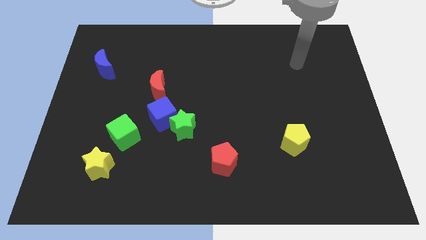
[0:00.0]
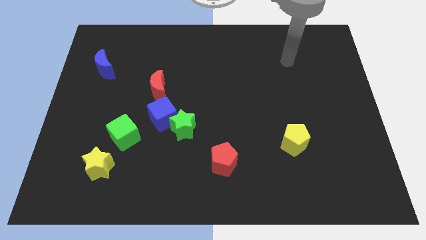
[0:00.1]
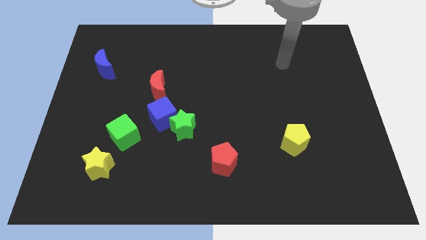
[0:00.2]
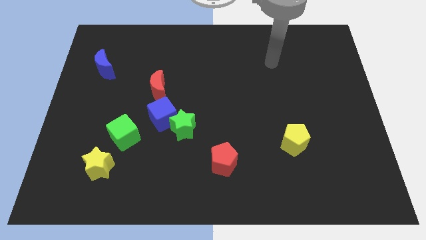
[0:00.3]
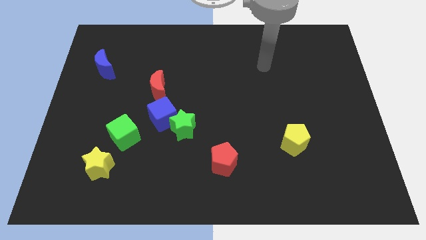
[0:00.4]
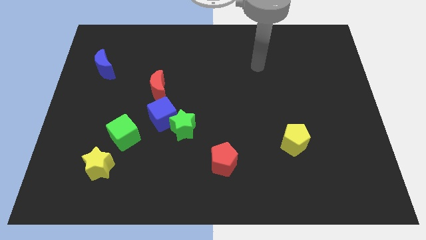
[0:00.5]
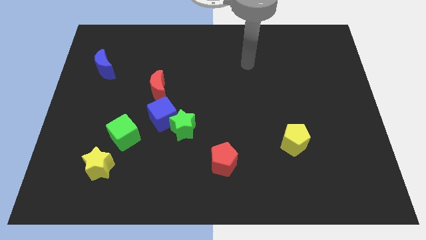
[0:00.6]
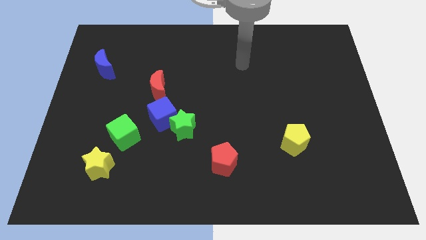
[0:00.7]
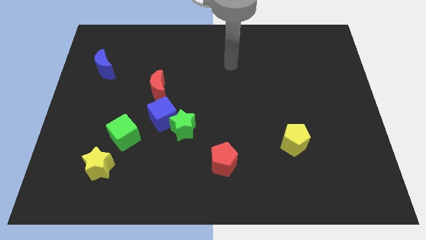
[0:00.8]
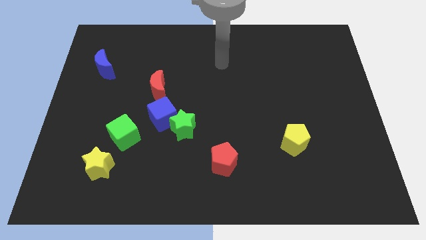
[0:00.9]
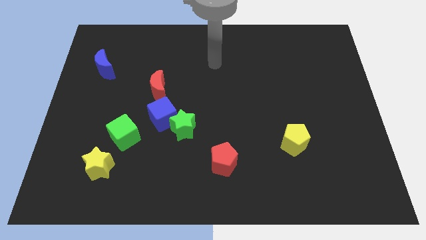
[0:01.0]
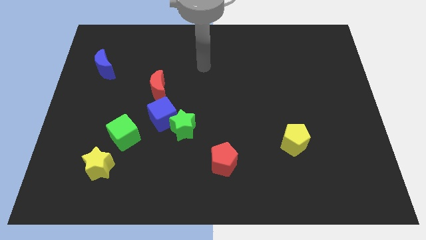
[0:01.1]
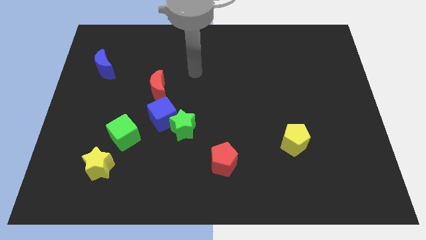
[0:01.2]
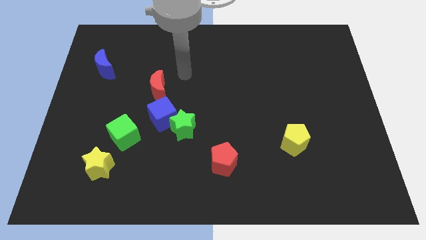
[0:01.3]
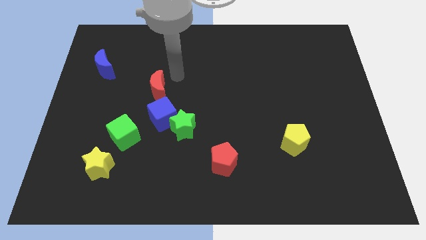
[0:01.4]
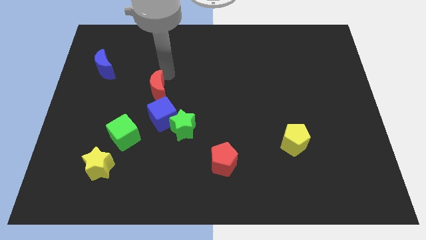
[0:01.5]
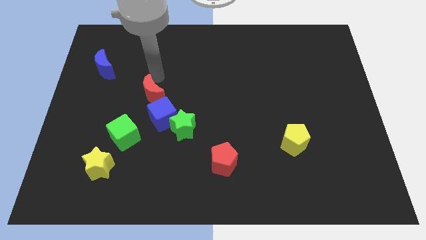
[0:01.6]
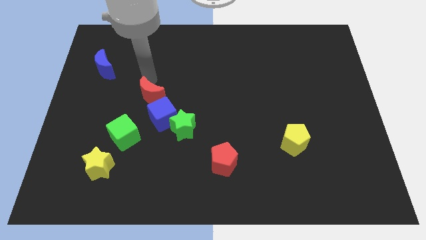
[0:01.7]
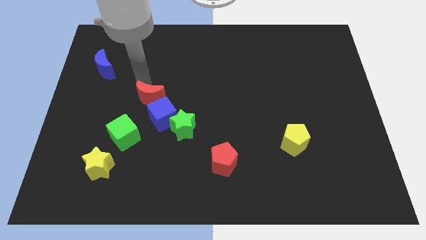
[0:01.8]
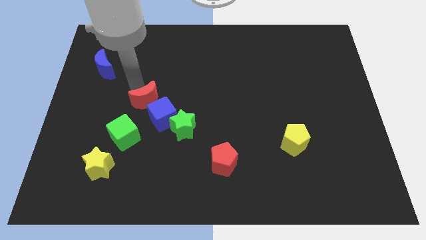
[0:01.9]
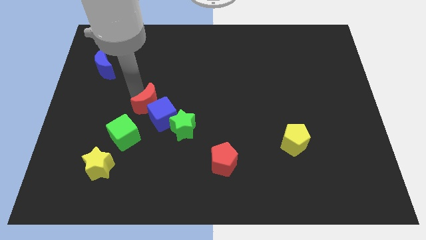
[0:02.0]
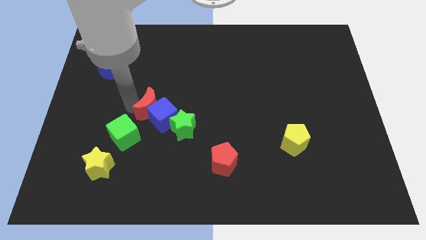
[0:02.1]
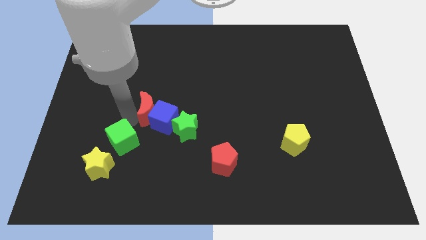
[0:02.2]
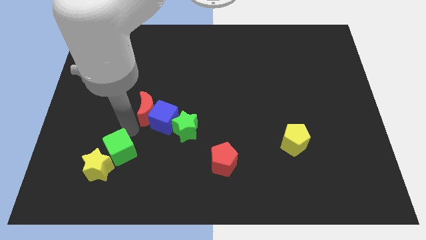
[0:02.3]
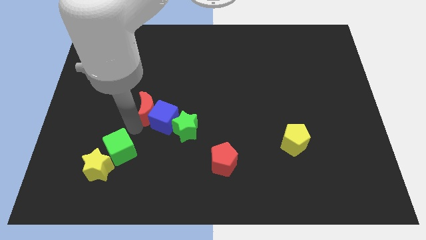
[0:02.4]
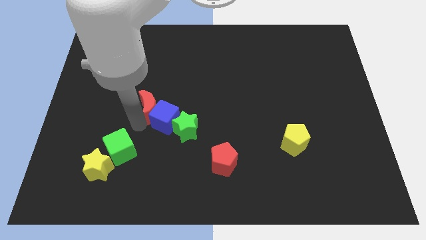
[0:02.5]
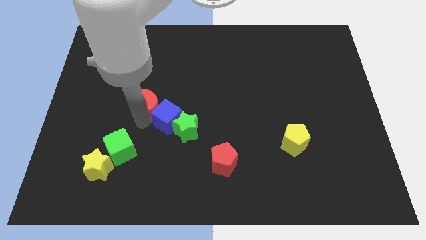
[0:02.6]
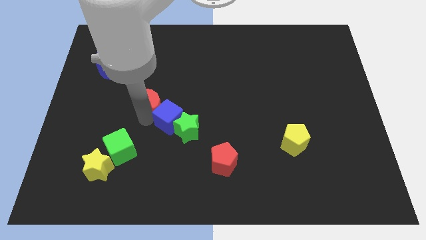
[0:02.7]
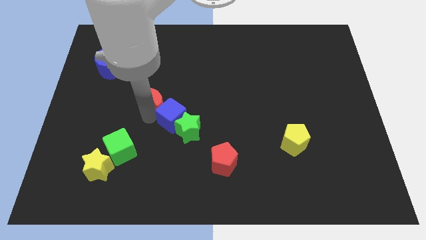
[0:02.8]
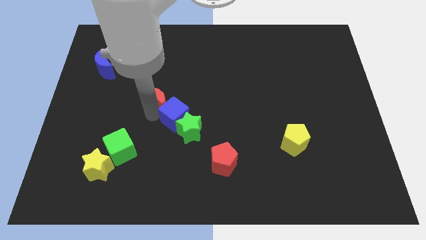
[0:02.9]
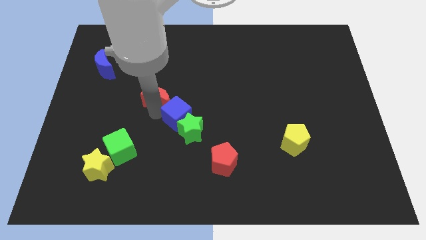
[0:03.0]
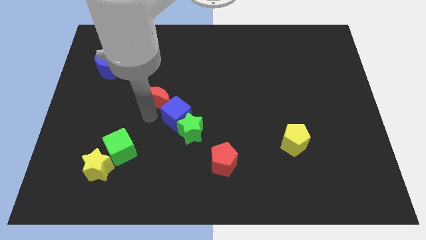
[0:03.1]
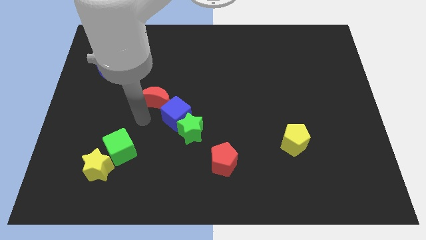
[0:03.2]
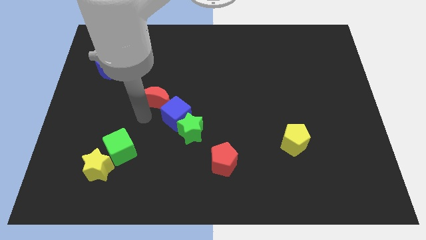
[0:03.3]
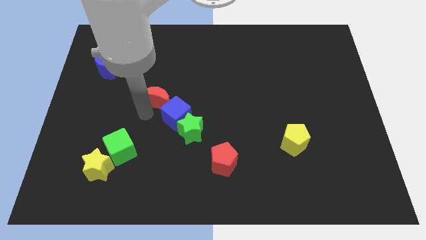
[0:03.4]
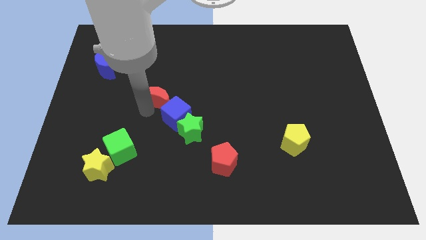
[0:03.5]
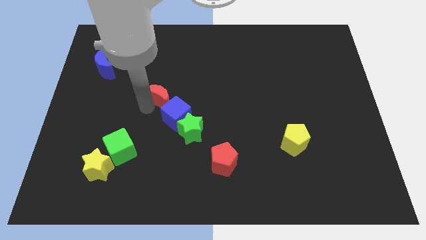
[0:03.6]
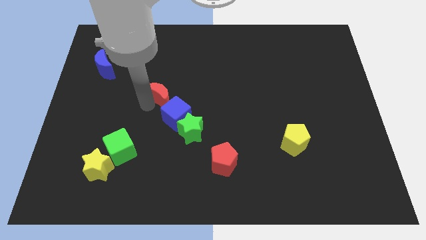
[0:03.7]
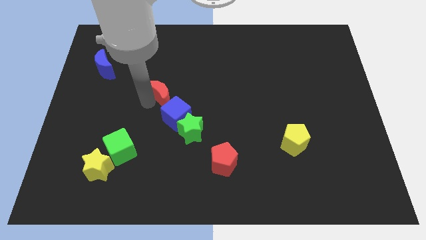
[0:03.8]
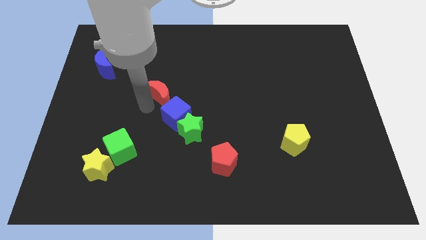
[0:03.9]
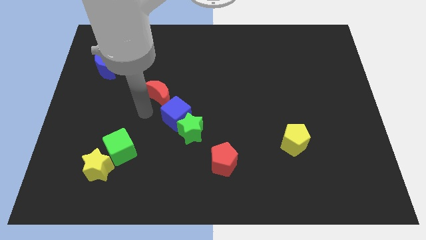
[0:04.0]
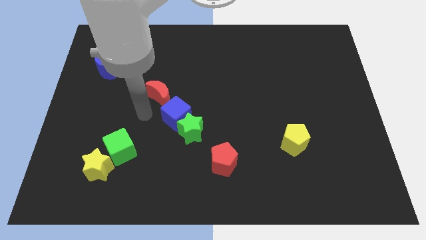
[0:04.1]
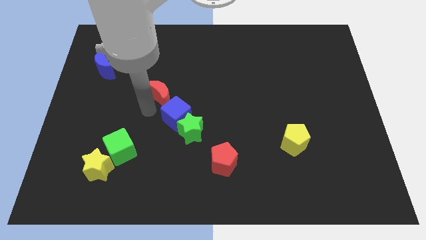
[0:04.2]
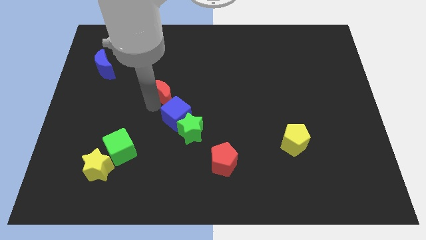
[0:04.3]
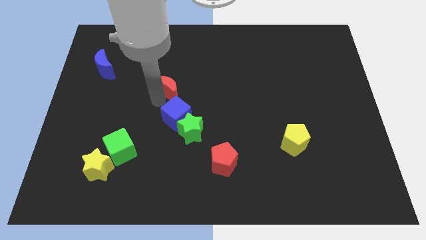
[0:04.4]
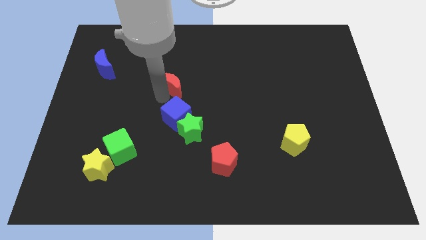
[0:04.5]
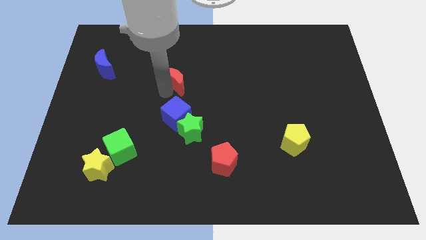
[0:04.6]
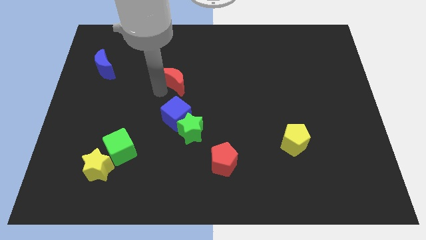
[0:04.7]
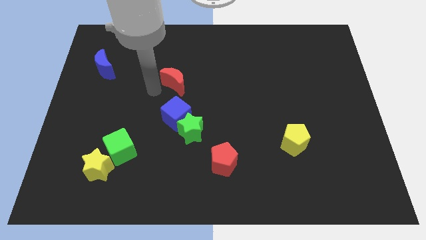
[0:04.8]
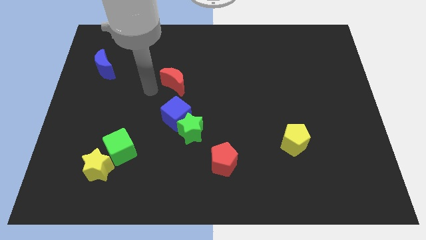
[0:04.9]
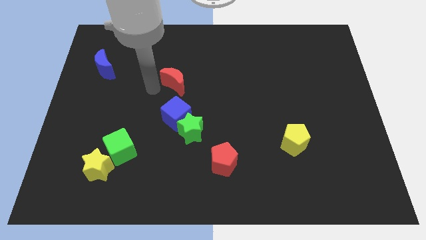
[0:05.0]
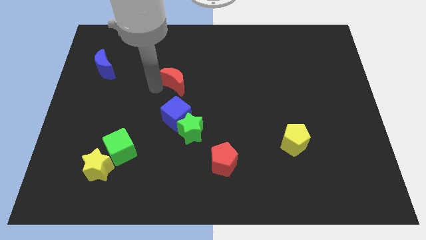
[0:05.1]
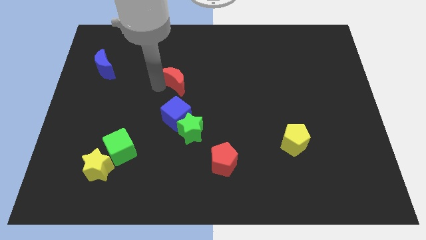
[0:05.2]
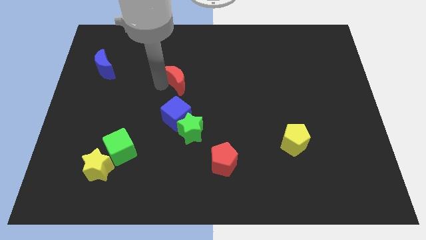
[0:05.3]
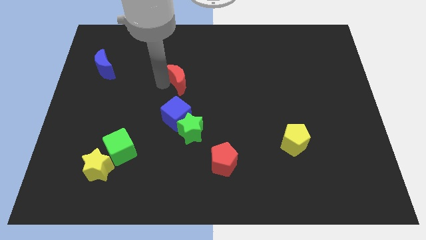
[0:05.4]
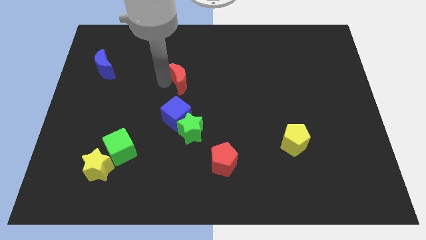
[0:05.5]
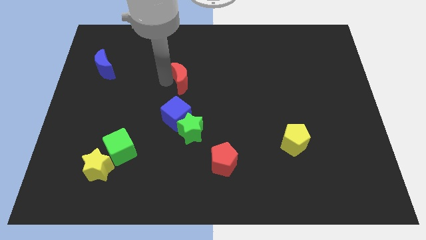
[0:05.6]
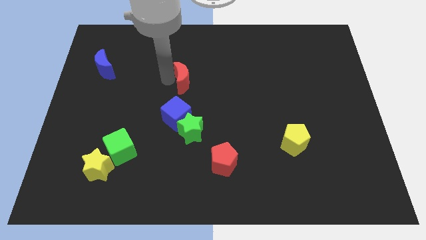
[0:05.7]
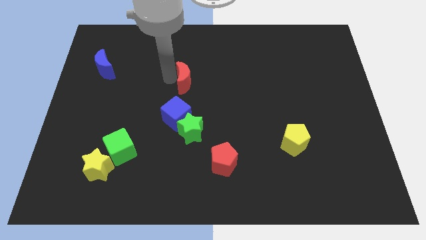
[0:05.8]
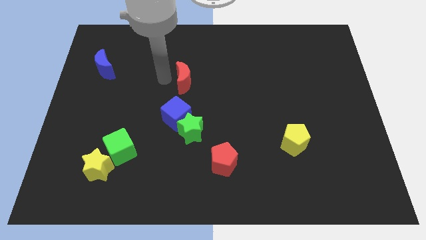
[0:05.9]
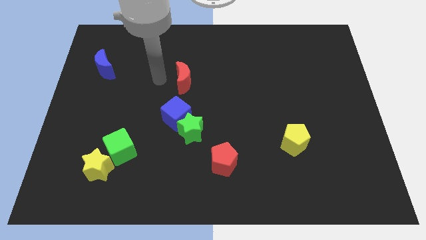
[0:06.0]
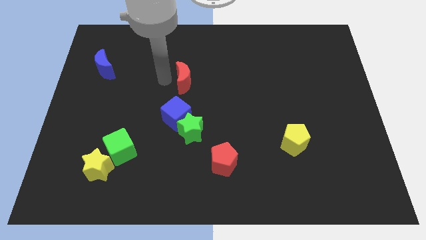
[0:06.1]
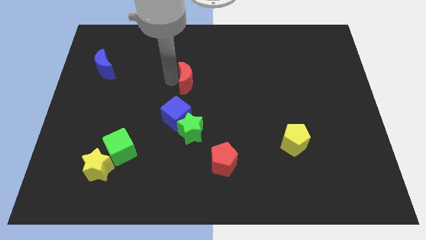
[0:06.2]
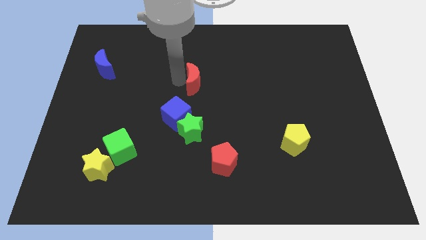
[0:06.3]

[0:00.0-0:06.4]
slightly push the red moon right

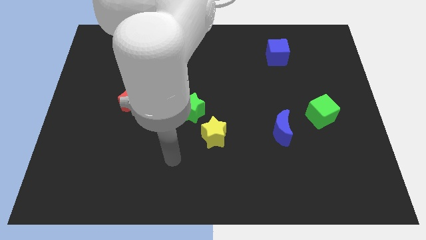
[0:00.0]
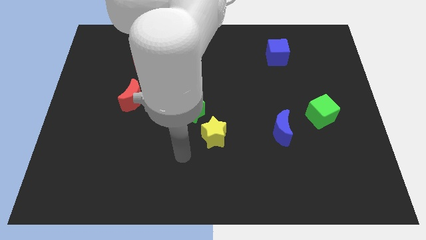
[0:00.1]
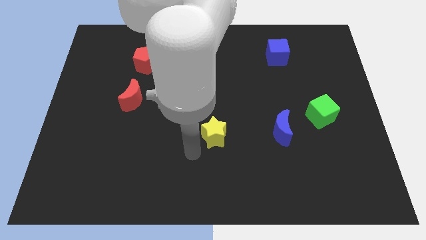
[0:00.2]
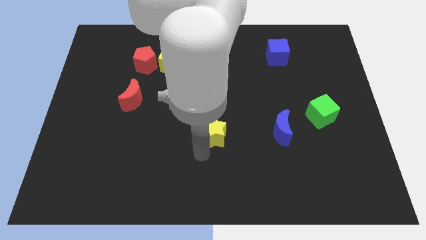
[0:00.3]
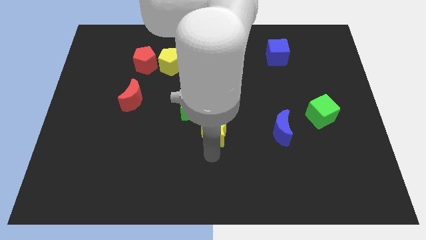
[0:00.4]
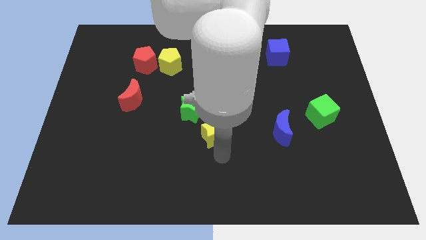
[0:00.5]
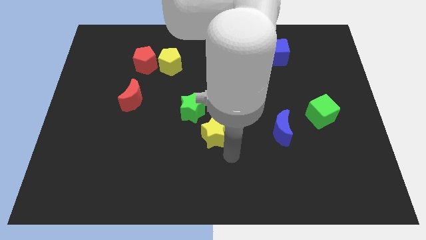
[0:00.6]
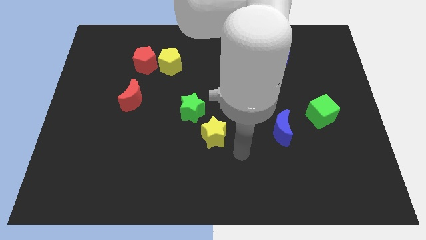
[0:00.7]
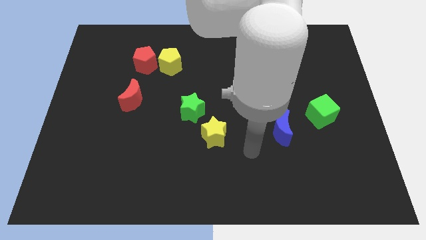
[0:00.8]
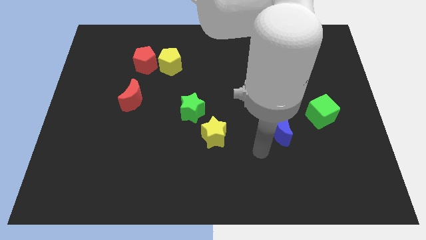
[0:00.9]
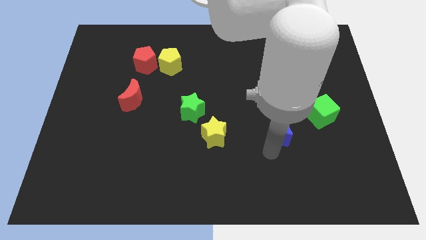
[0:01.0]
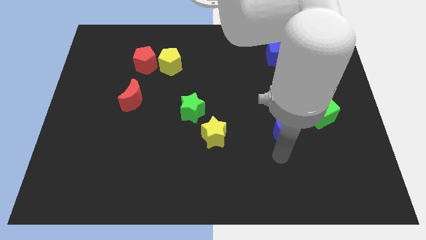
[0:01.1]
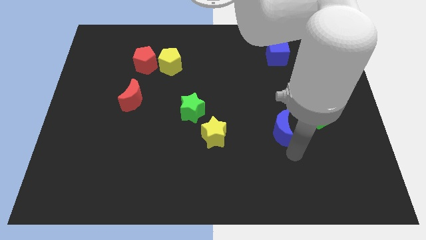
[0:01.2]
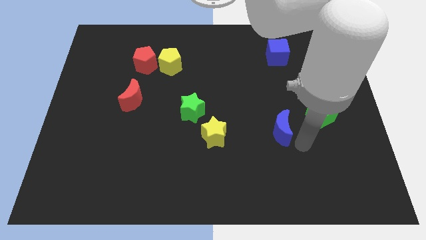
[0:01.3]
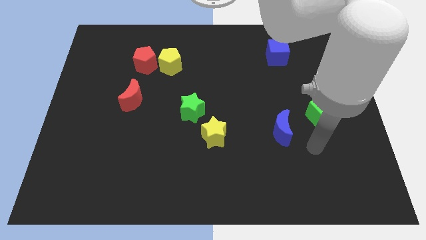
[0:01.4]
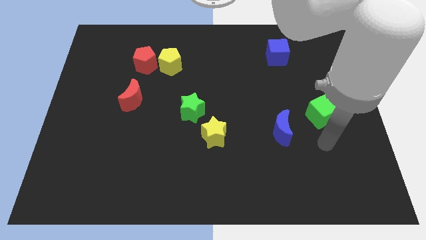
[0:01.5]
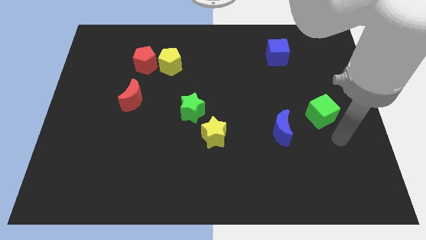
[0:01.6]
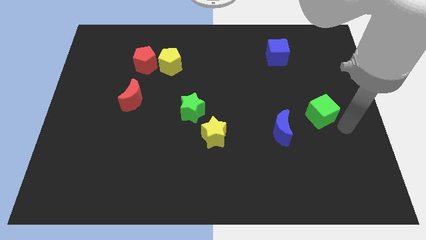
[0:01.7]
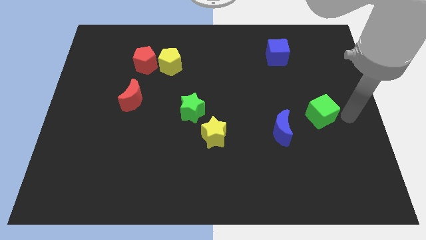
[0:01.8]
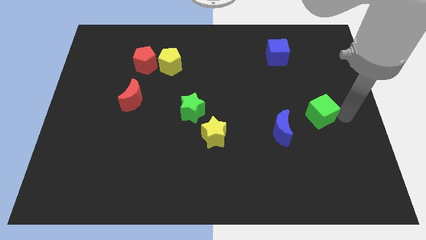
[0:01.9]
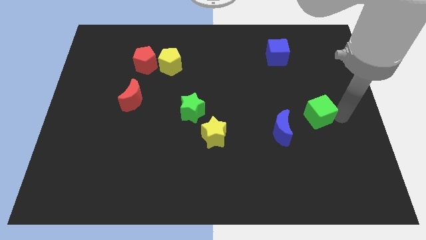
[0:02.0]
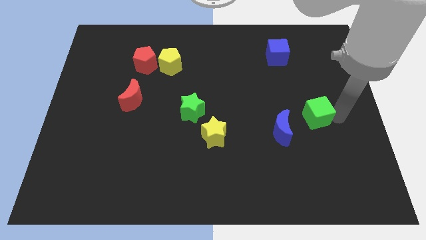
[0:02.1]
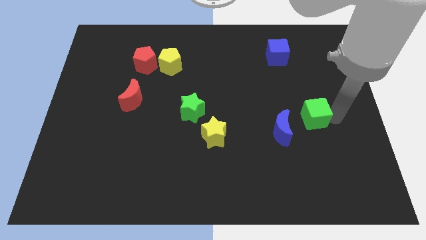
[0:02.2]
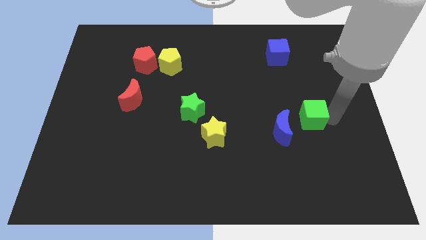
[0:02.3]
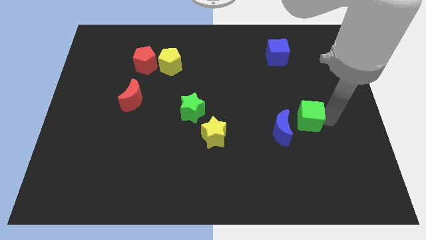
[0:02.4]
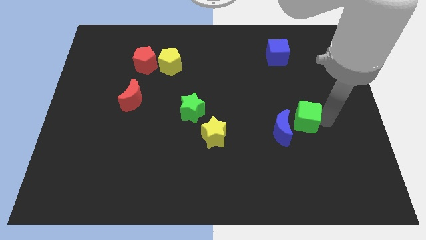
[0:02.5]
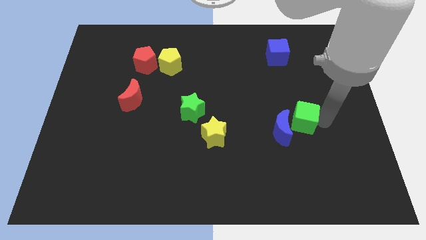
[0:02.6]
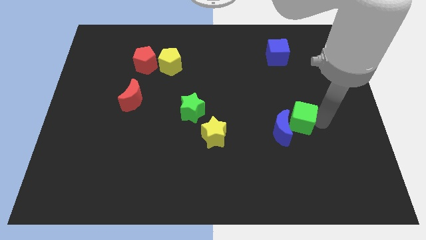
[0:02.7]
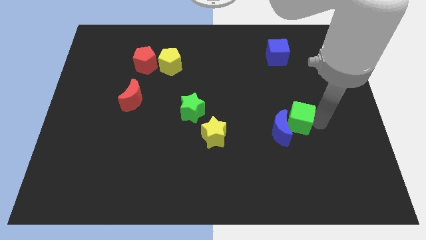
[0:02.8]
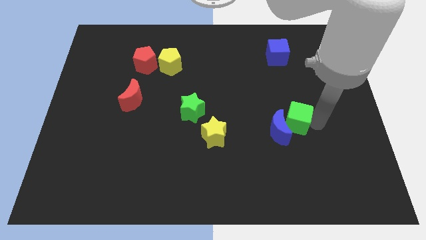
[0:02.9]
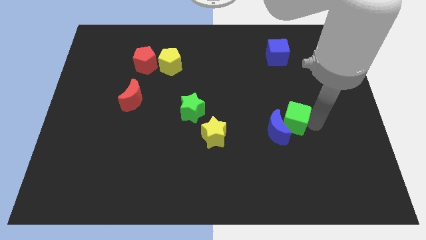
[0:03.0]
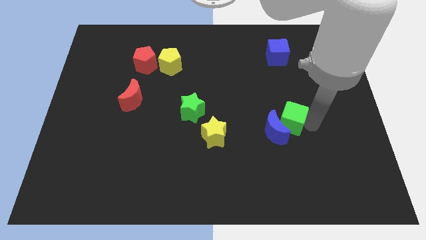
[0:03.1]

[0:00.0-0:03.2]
move the green cube a little left
